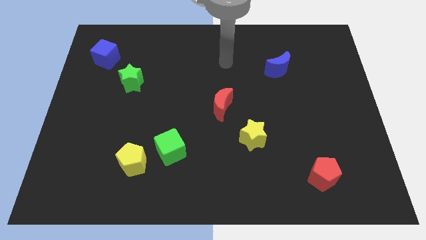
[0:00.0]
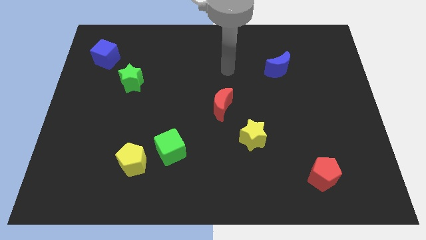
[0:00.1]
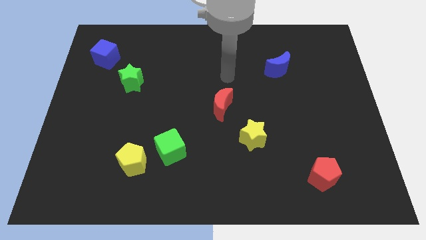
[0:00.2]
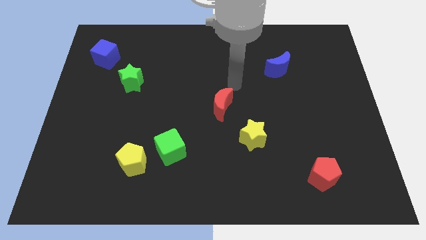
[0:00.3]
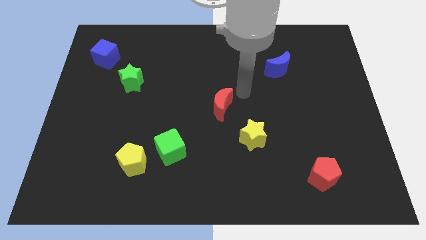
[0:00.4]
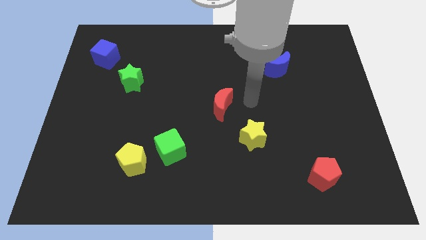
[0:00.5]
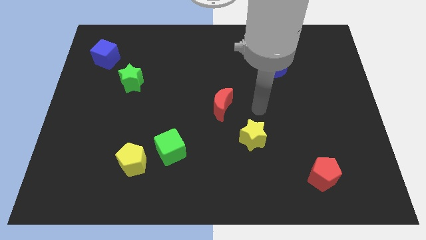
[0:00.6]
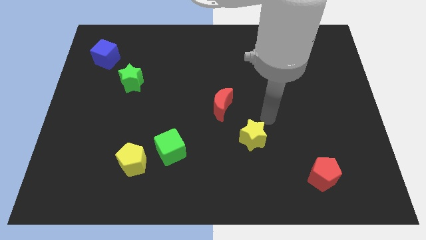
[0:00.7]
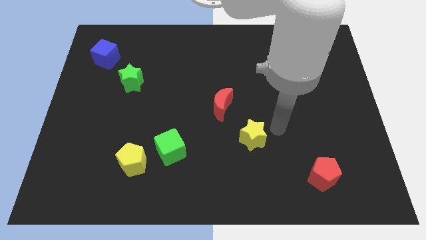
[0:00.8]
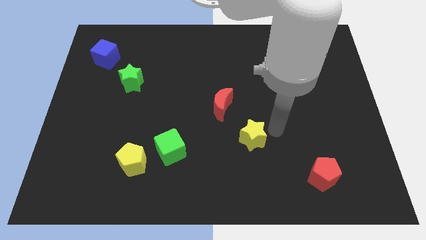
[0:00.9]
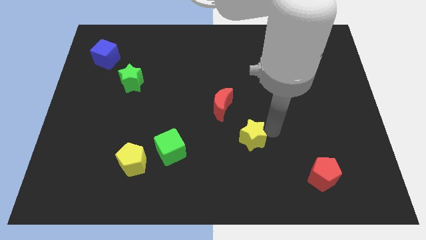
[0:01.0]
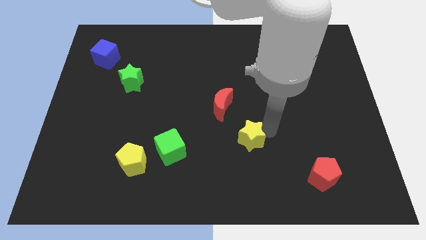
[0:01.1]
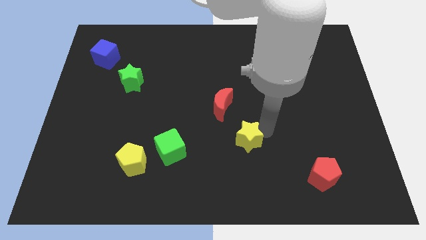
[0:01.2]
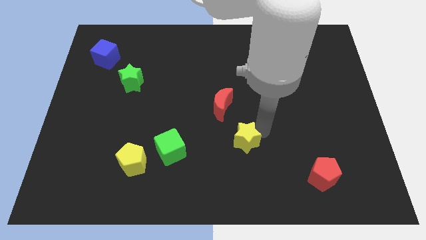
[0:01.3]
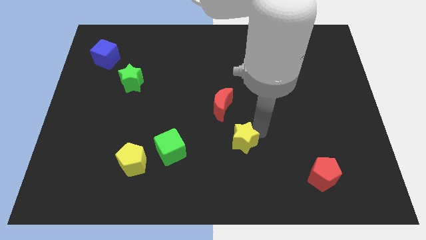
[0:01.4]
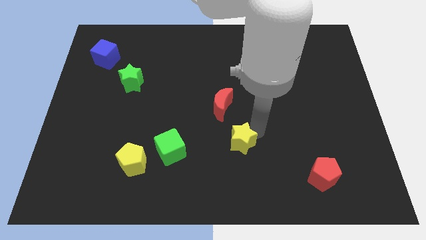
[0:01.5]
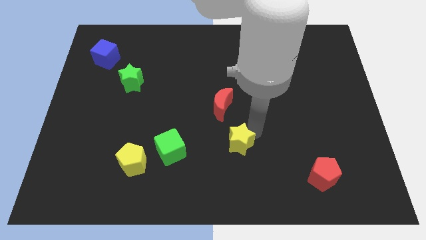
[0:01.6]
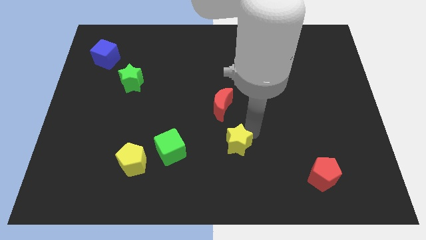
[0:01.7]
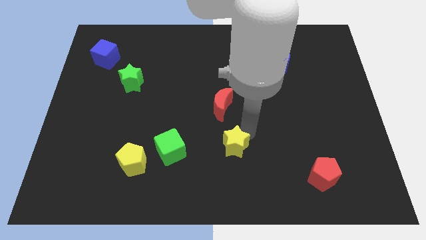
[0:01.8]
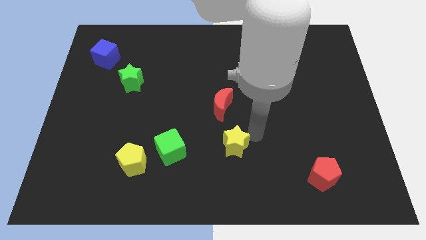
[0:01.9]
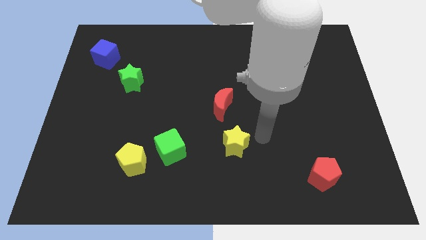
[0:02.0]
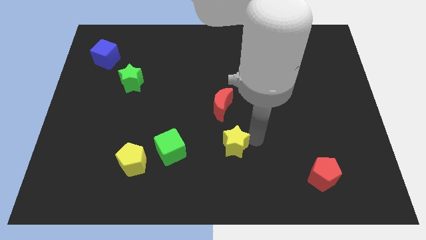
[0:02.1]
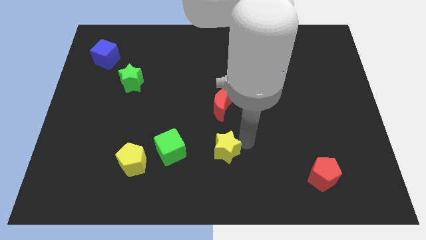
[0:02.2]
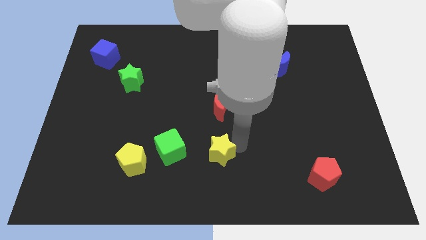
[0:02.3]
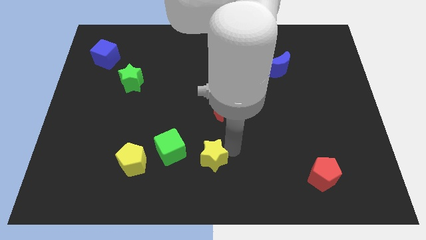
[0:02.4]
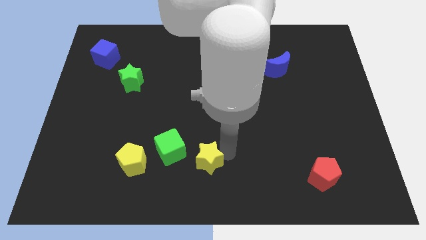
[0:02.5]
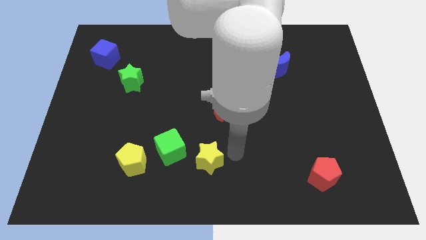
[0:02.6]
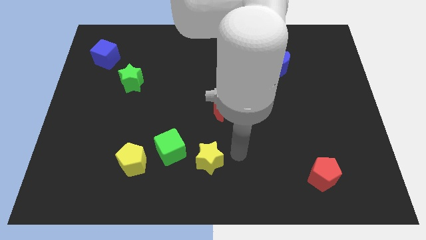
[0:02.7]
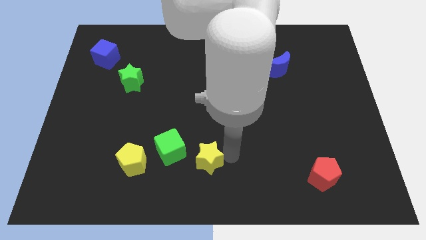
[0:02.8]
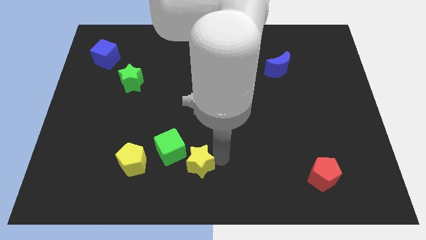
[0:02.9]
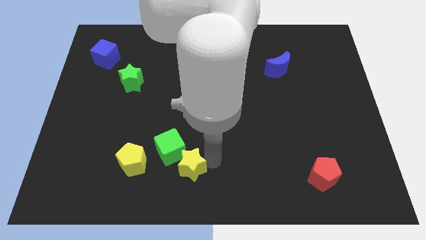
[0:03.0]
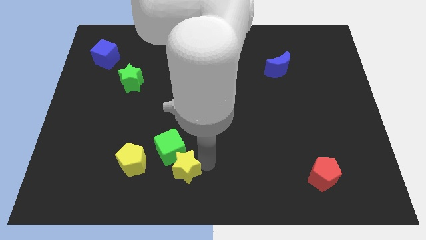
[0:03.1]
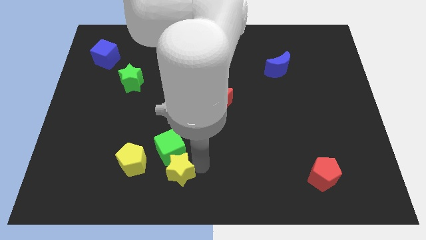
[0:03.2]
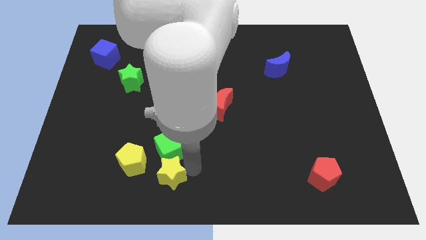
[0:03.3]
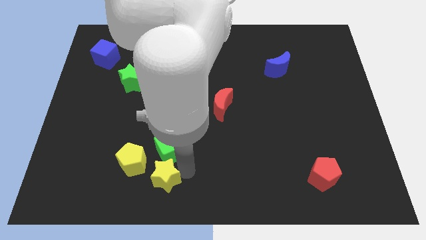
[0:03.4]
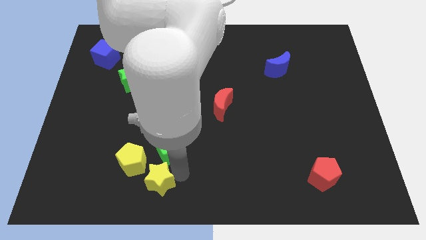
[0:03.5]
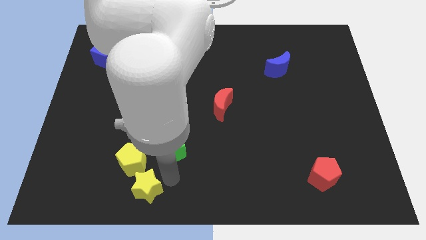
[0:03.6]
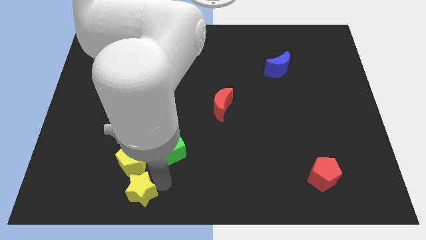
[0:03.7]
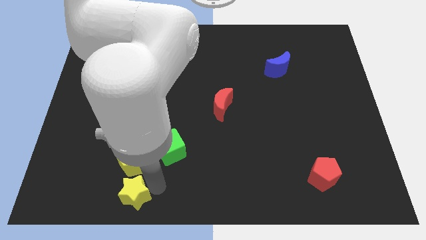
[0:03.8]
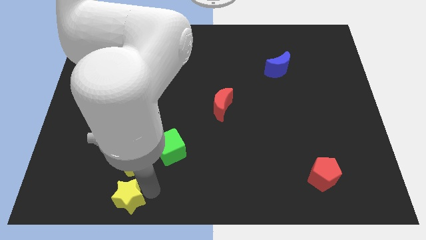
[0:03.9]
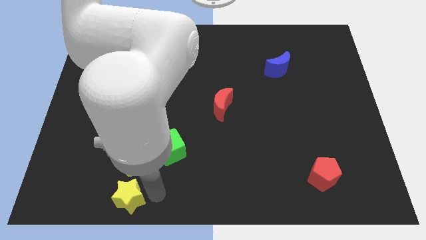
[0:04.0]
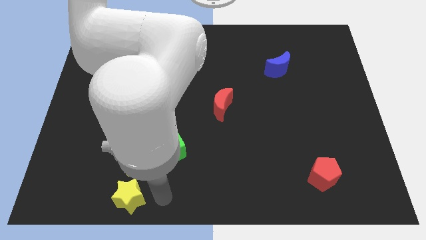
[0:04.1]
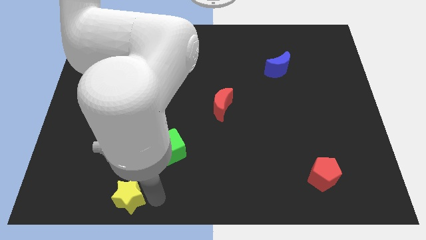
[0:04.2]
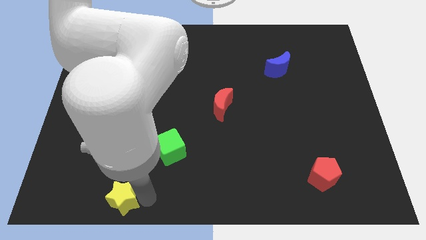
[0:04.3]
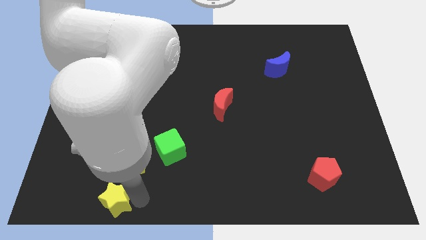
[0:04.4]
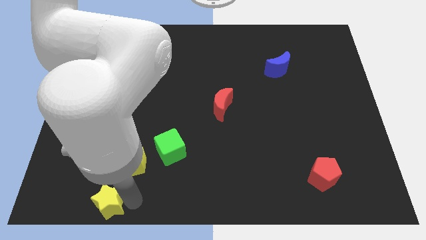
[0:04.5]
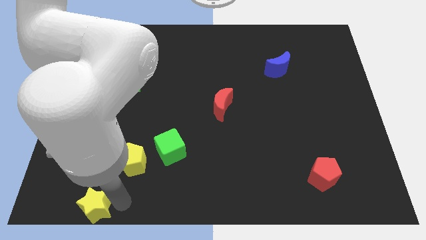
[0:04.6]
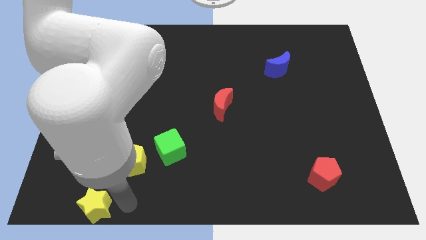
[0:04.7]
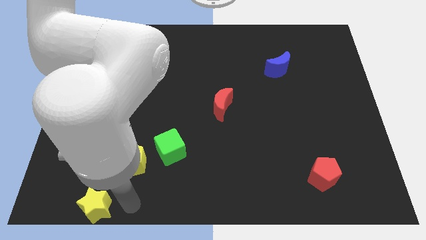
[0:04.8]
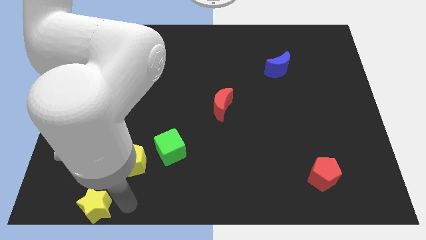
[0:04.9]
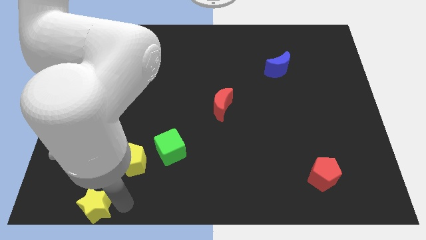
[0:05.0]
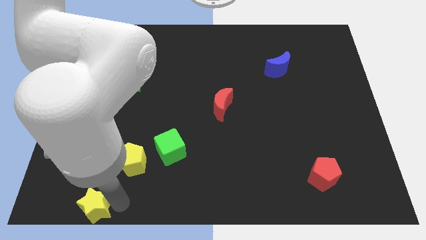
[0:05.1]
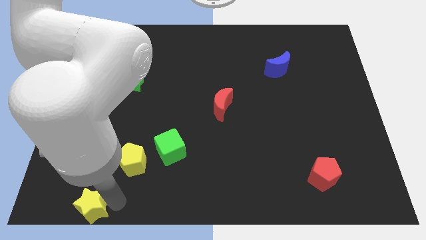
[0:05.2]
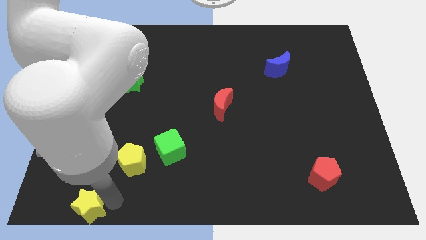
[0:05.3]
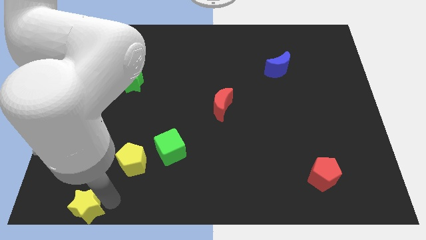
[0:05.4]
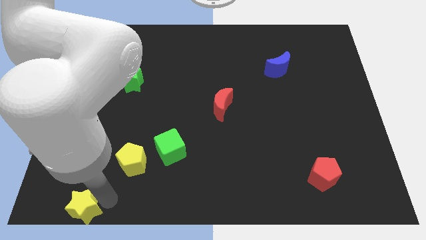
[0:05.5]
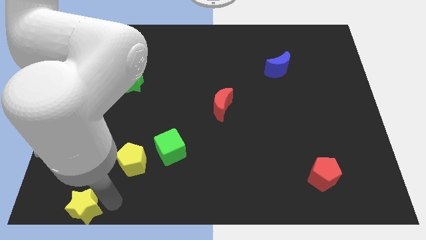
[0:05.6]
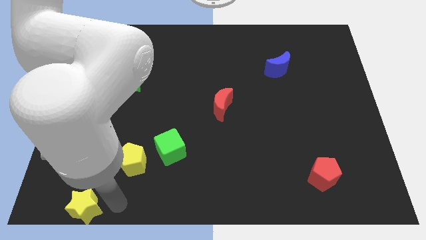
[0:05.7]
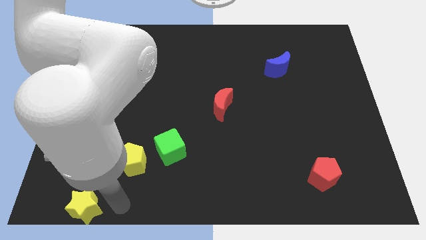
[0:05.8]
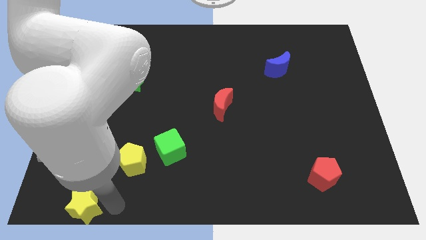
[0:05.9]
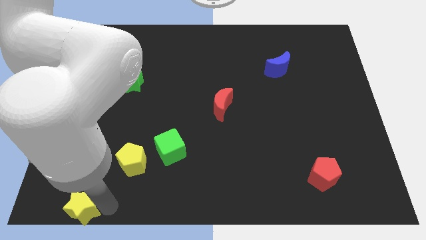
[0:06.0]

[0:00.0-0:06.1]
slide the yellow star to the bottom left corner

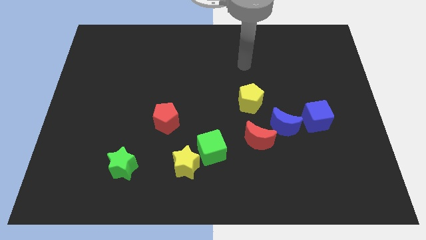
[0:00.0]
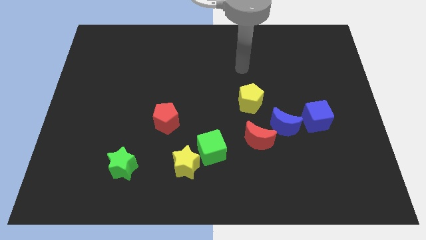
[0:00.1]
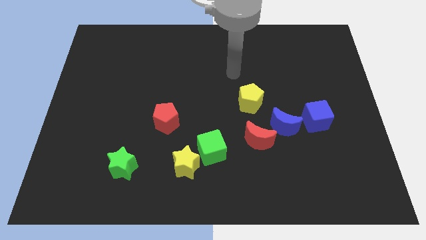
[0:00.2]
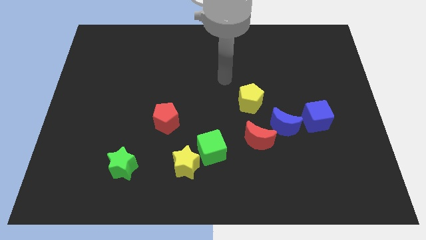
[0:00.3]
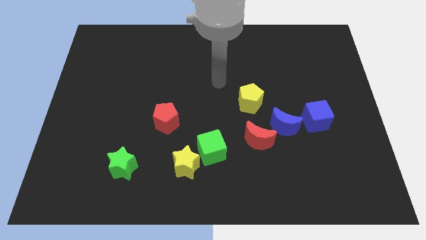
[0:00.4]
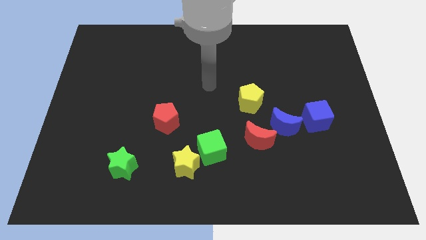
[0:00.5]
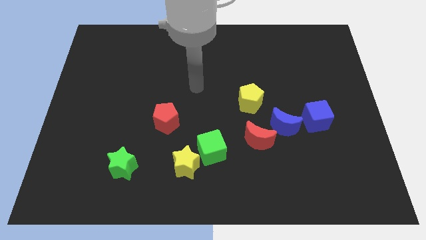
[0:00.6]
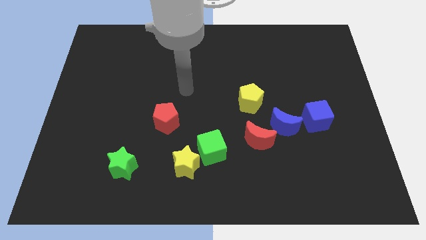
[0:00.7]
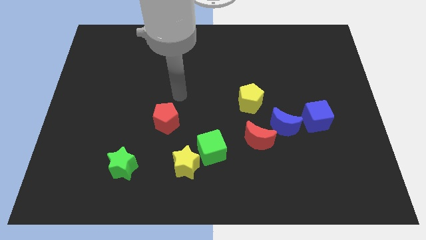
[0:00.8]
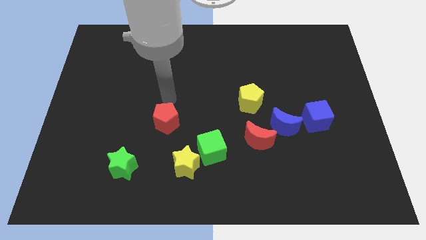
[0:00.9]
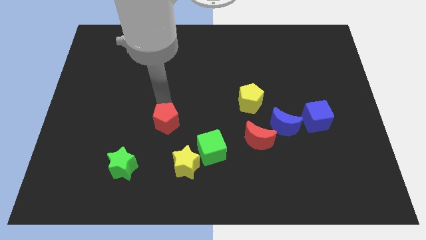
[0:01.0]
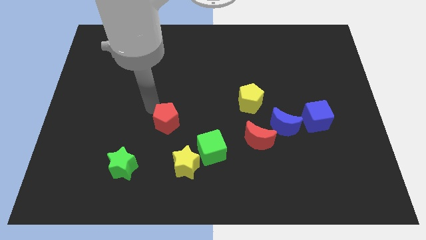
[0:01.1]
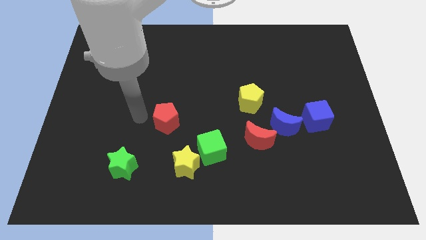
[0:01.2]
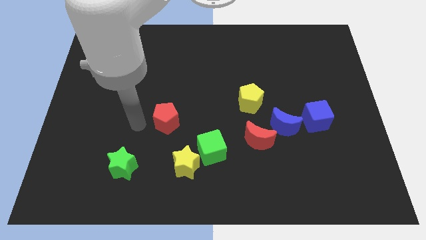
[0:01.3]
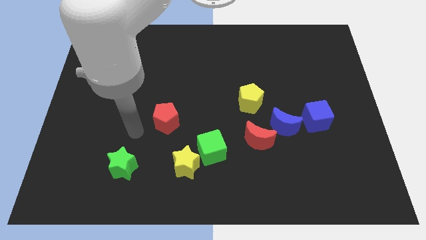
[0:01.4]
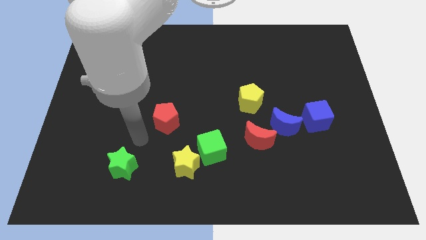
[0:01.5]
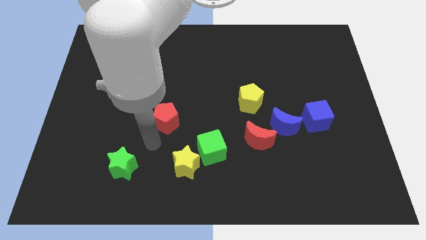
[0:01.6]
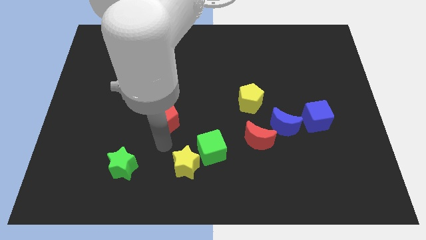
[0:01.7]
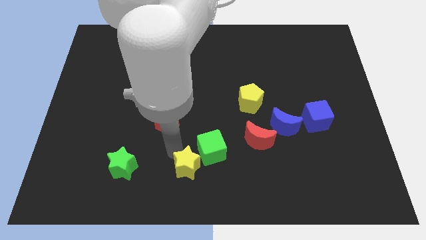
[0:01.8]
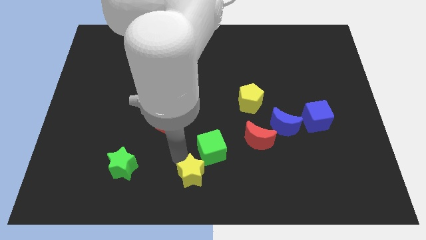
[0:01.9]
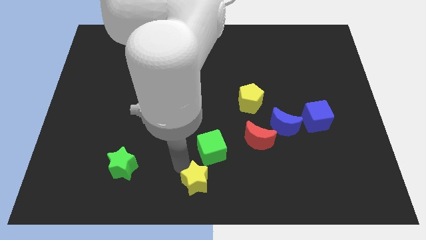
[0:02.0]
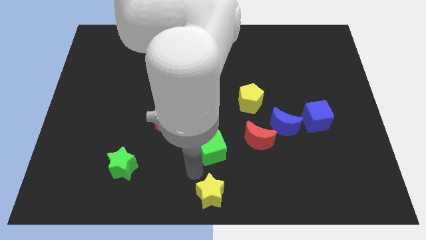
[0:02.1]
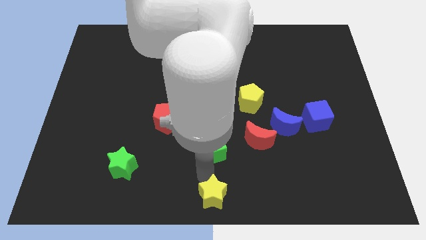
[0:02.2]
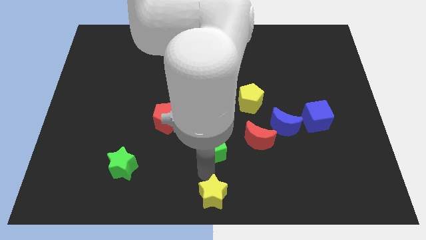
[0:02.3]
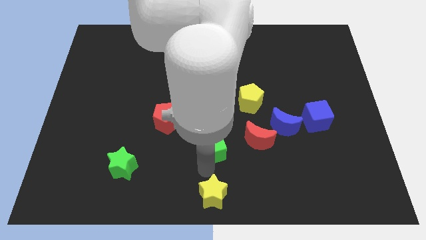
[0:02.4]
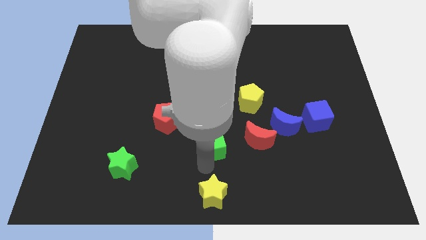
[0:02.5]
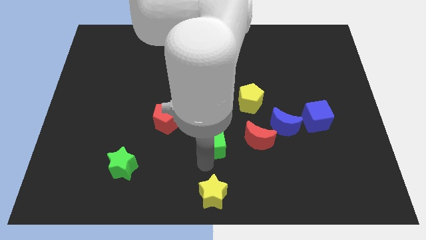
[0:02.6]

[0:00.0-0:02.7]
put the green cube to the center
